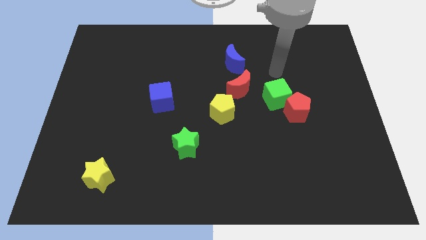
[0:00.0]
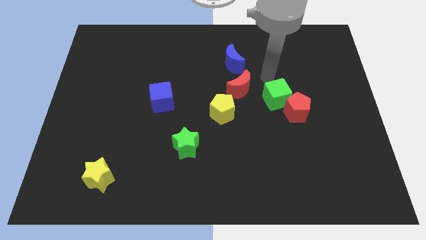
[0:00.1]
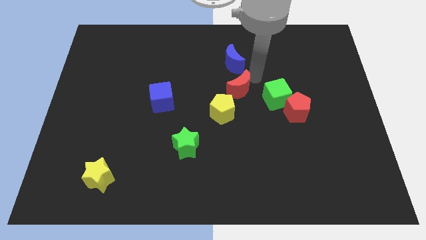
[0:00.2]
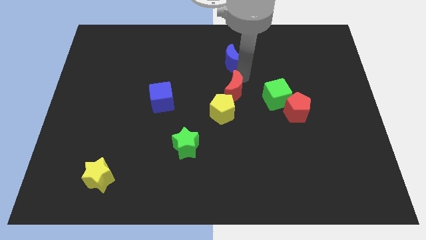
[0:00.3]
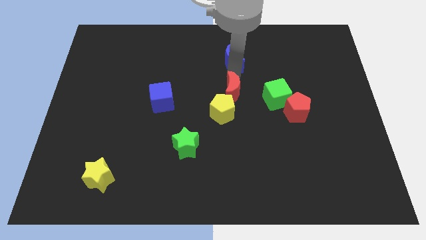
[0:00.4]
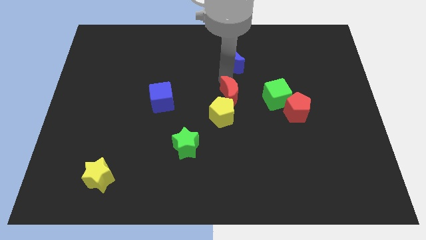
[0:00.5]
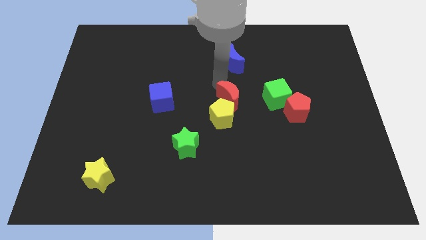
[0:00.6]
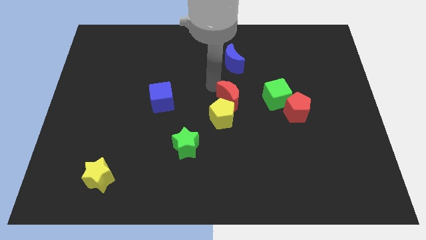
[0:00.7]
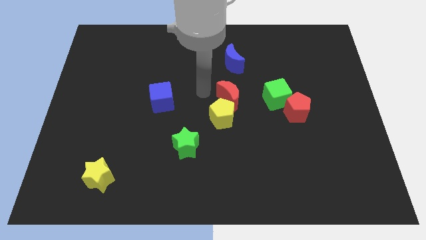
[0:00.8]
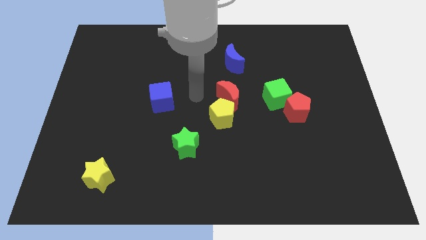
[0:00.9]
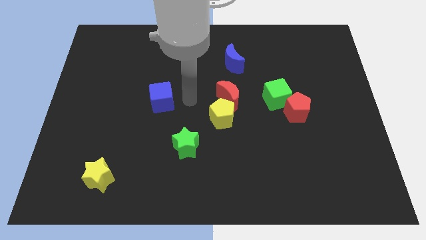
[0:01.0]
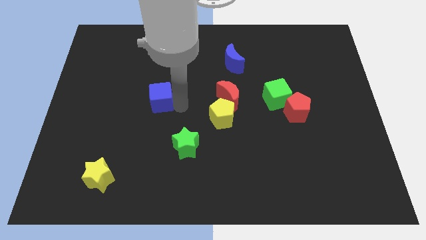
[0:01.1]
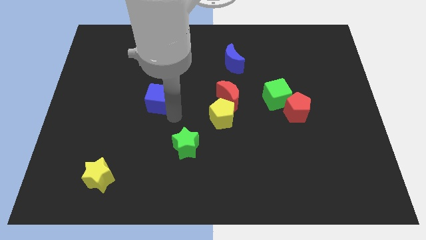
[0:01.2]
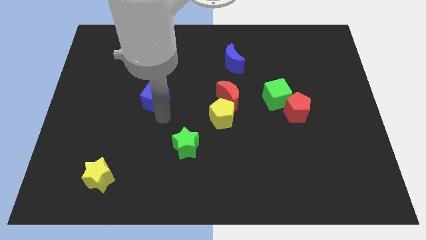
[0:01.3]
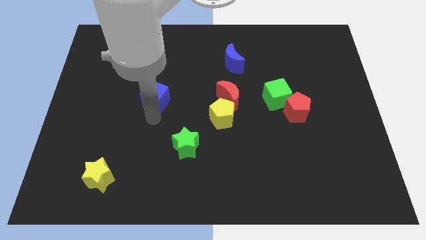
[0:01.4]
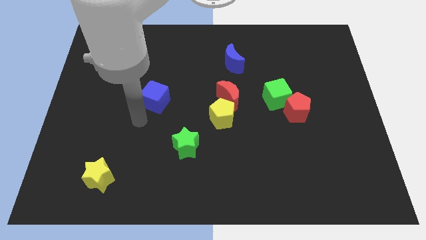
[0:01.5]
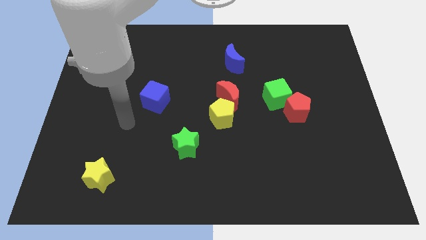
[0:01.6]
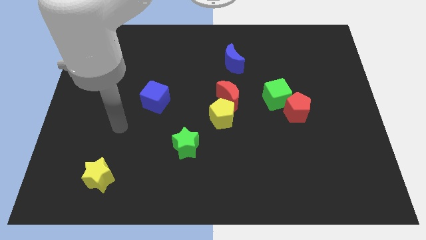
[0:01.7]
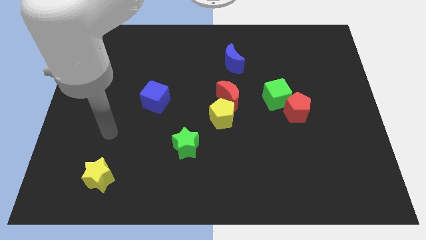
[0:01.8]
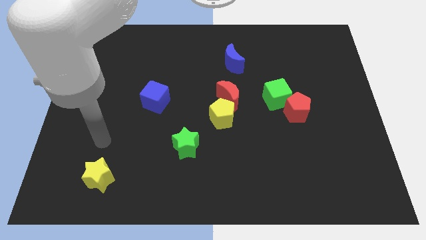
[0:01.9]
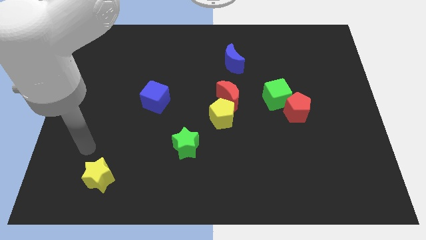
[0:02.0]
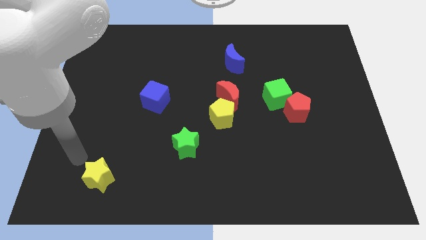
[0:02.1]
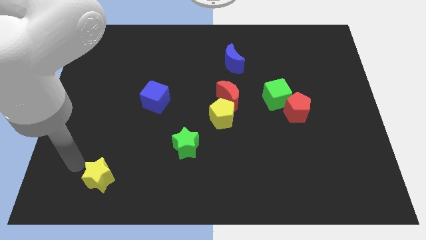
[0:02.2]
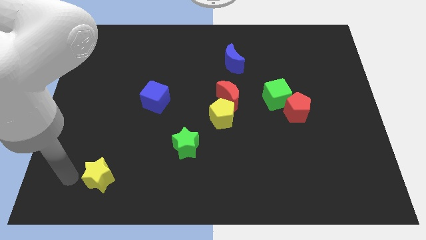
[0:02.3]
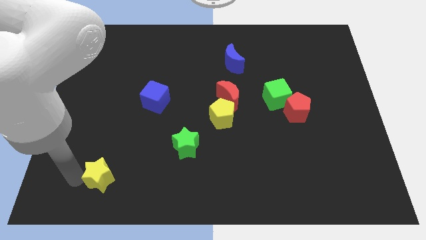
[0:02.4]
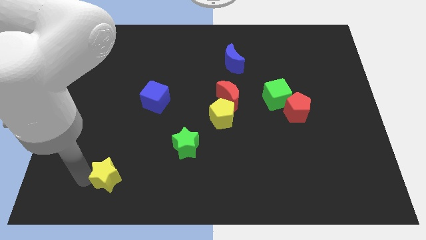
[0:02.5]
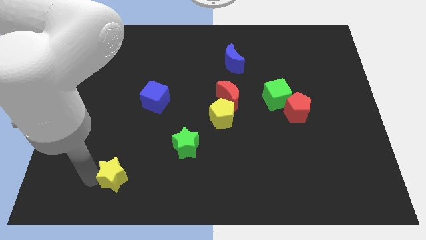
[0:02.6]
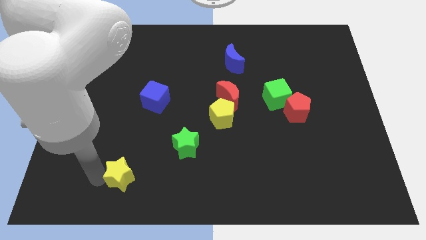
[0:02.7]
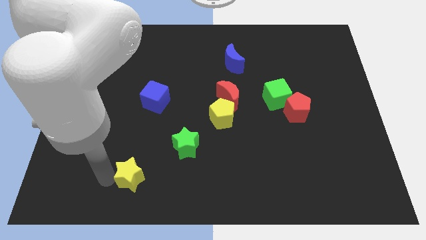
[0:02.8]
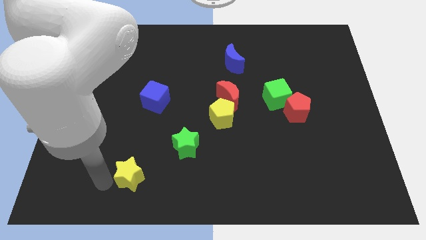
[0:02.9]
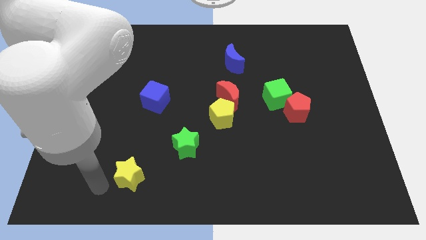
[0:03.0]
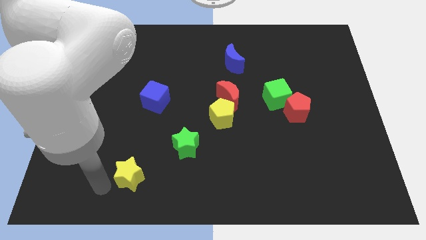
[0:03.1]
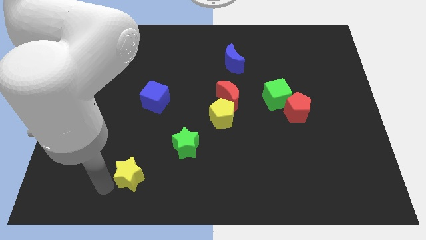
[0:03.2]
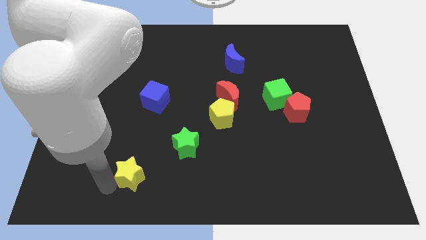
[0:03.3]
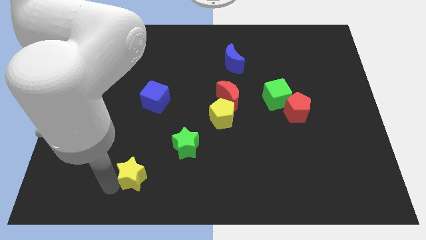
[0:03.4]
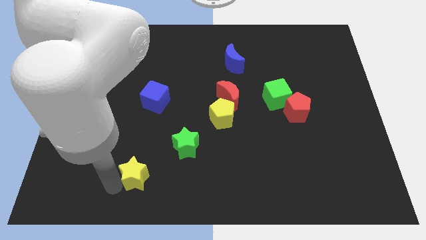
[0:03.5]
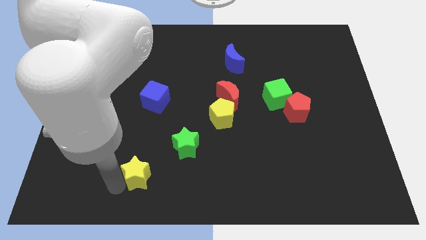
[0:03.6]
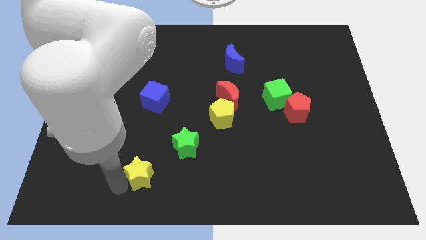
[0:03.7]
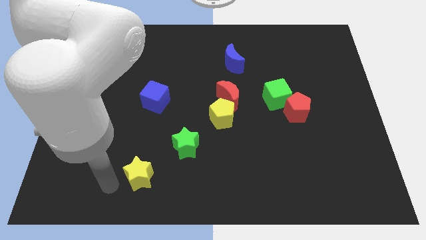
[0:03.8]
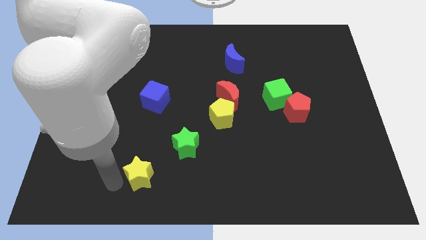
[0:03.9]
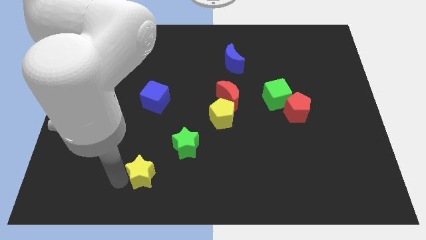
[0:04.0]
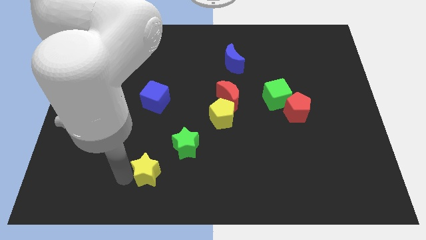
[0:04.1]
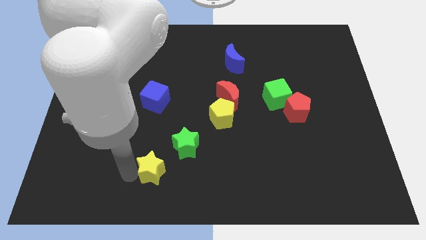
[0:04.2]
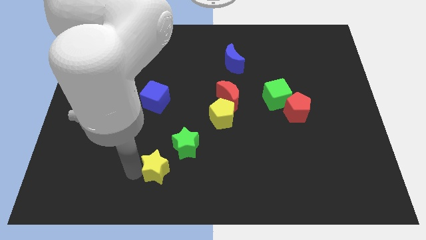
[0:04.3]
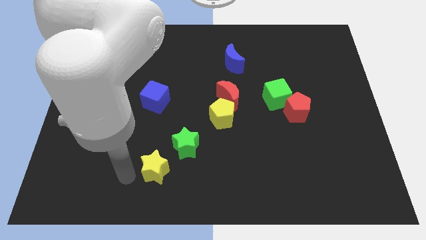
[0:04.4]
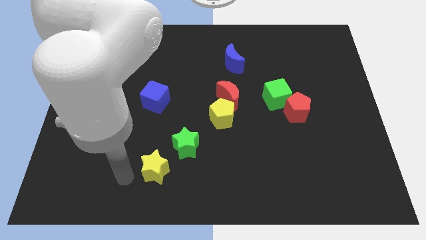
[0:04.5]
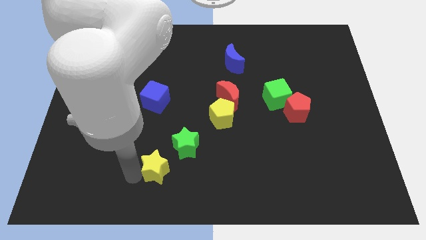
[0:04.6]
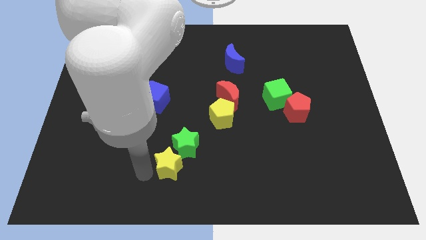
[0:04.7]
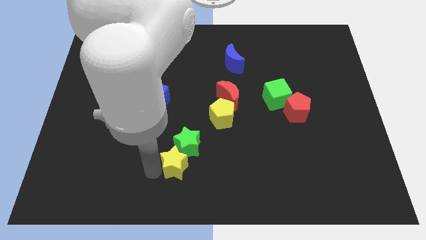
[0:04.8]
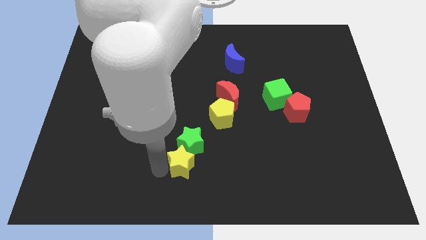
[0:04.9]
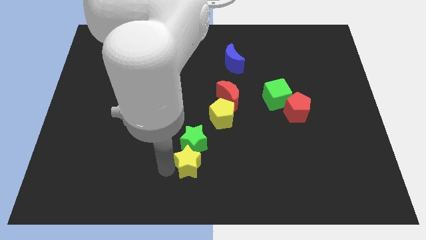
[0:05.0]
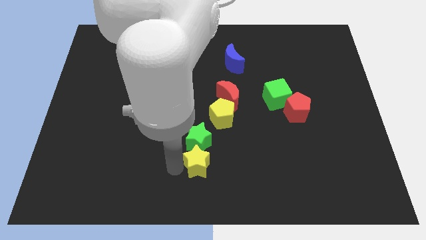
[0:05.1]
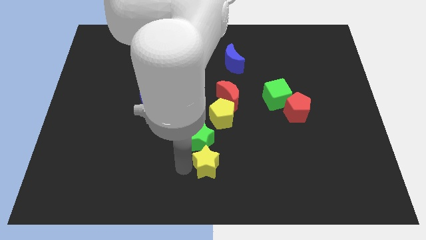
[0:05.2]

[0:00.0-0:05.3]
push the yellow star to the bottom side of the yellow pentagon

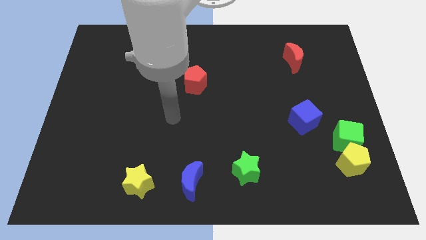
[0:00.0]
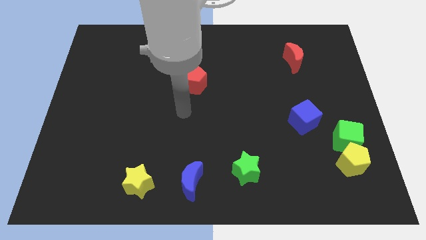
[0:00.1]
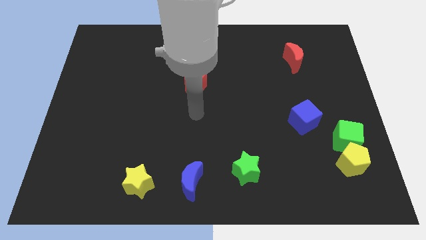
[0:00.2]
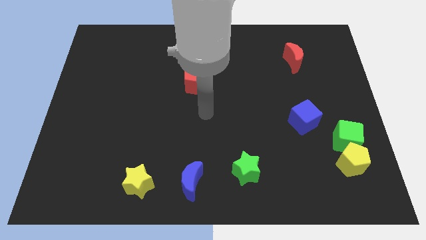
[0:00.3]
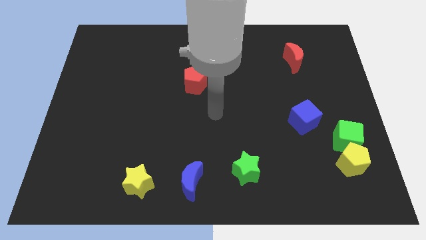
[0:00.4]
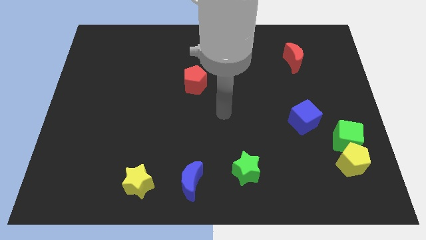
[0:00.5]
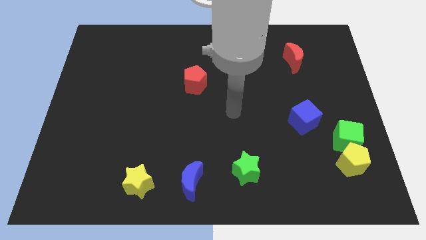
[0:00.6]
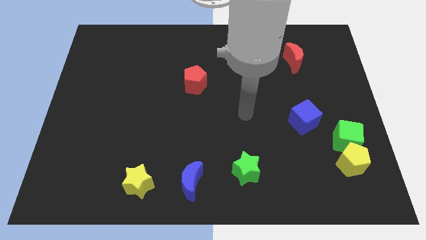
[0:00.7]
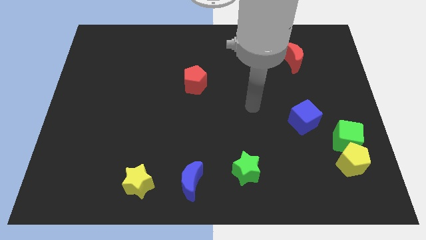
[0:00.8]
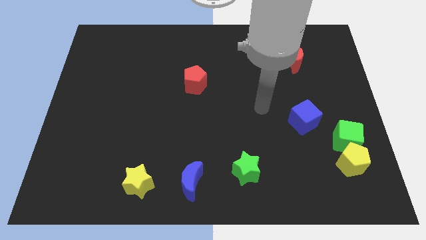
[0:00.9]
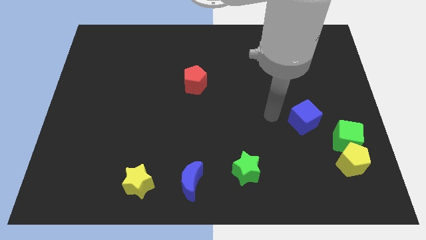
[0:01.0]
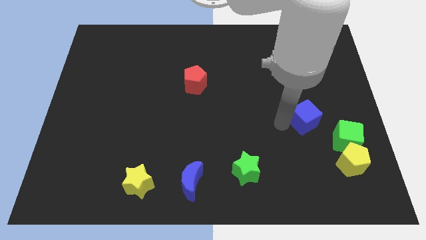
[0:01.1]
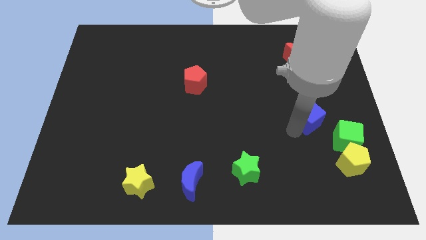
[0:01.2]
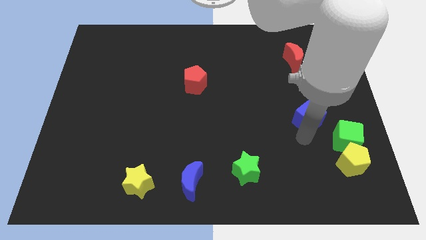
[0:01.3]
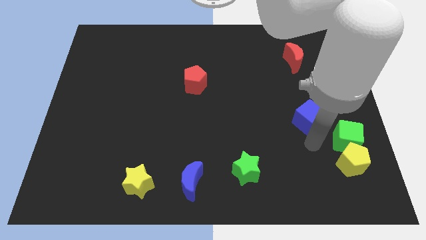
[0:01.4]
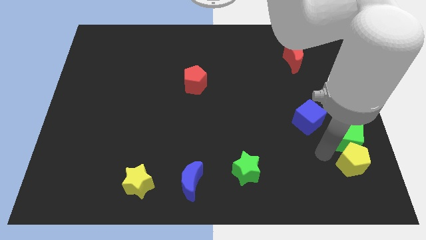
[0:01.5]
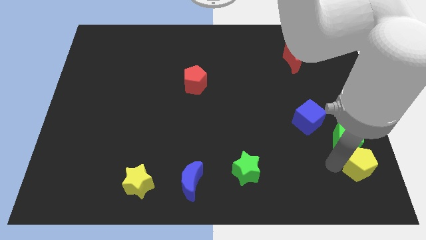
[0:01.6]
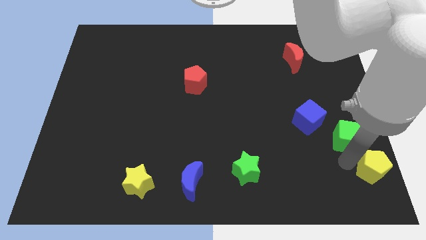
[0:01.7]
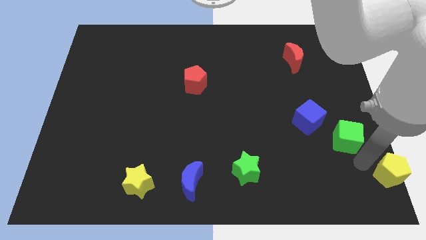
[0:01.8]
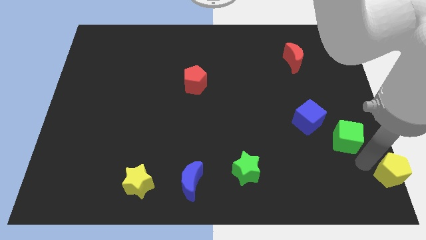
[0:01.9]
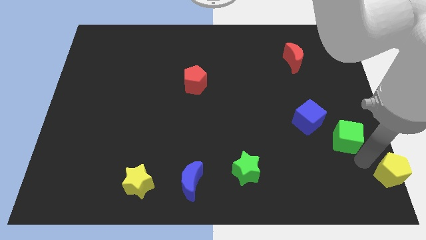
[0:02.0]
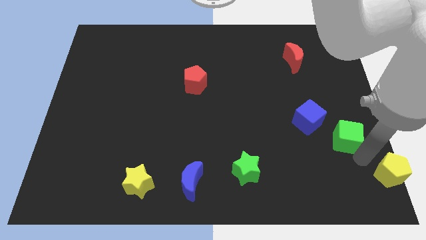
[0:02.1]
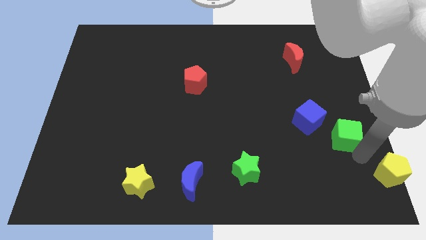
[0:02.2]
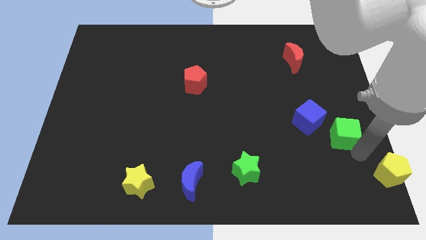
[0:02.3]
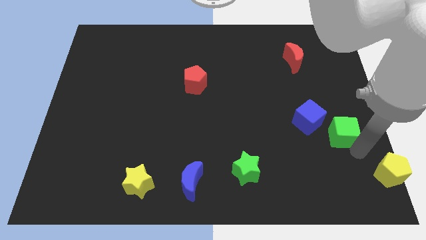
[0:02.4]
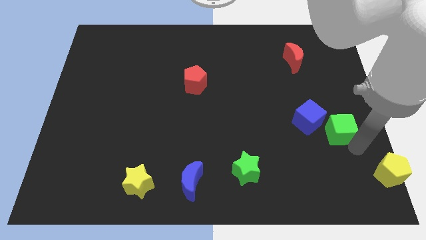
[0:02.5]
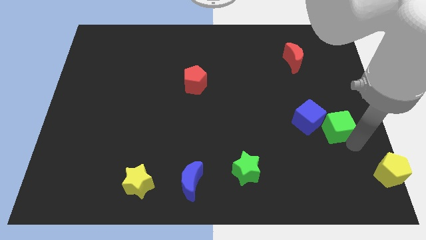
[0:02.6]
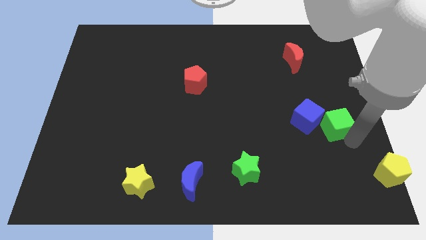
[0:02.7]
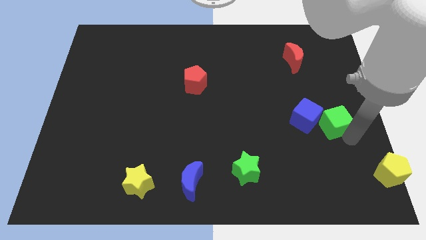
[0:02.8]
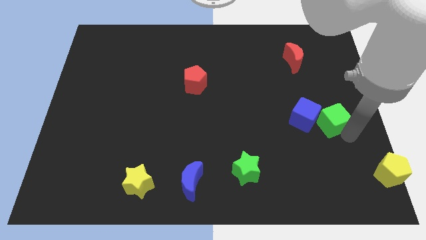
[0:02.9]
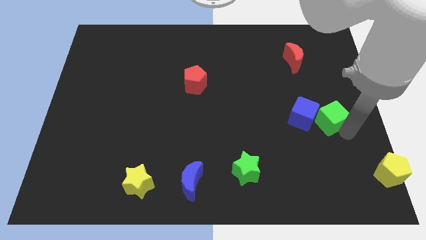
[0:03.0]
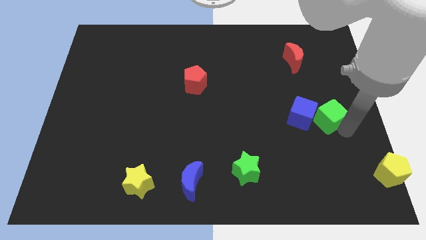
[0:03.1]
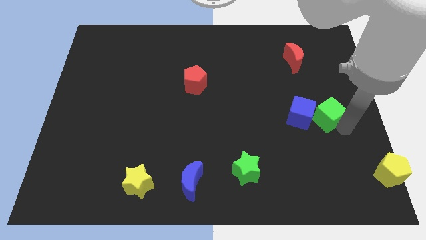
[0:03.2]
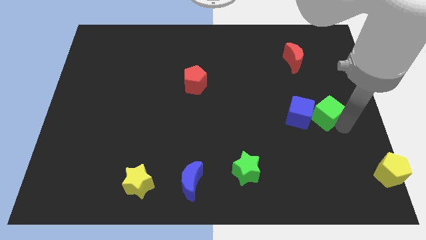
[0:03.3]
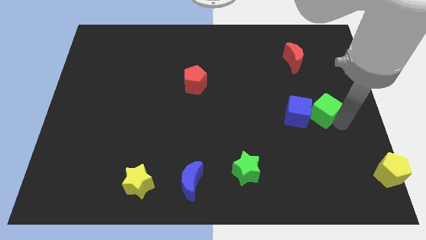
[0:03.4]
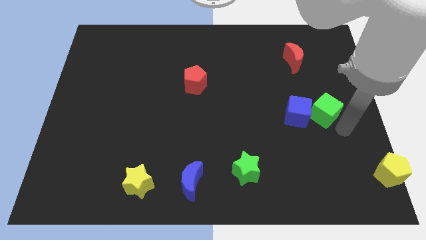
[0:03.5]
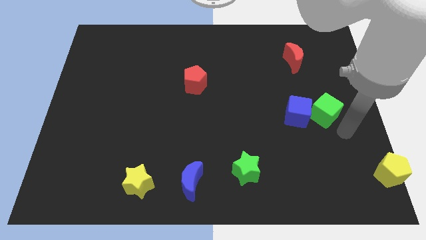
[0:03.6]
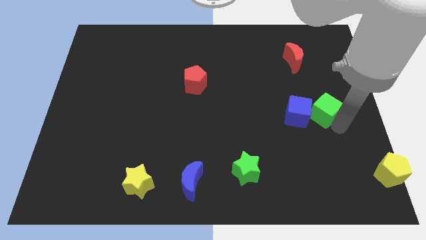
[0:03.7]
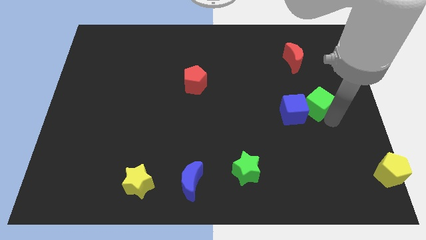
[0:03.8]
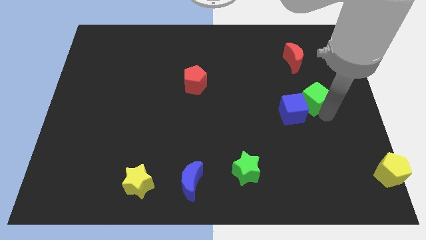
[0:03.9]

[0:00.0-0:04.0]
slide the green cube below the red moon
